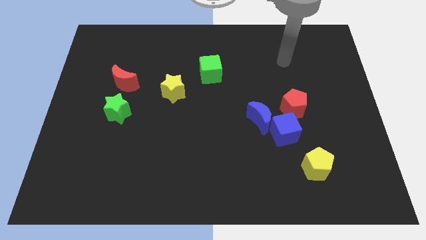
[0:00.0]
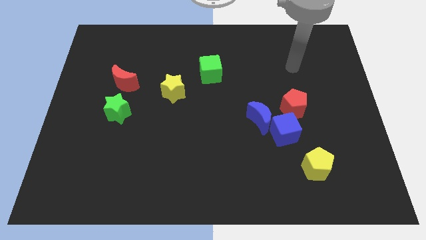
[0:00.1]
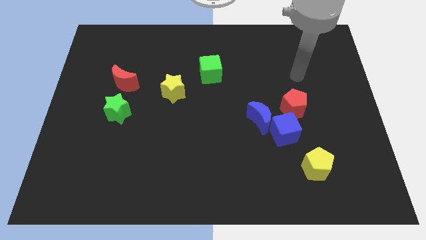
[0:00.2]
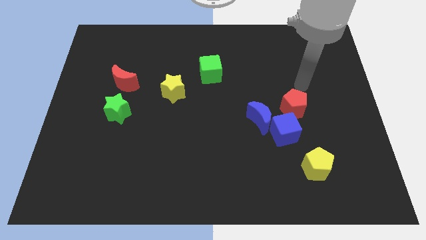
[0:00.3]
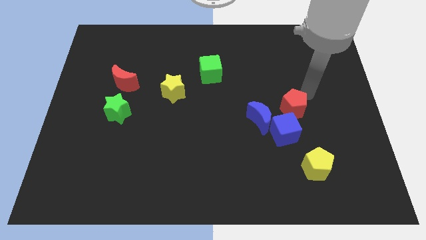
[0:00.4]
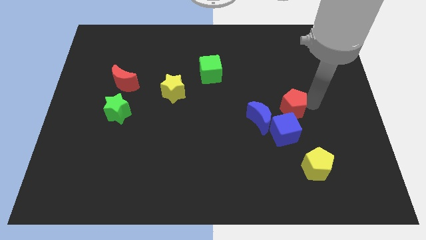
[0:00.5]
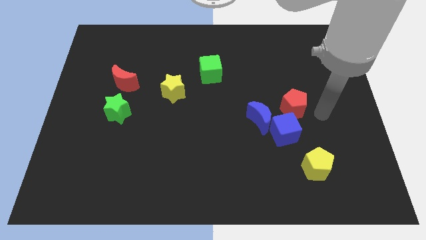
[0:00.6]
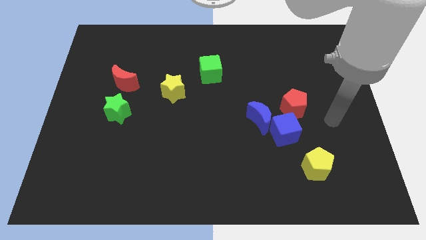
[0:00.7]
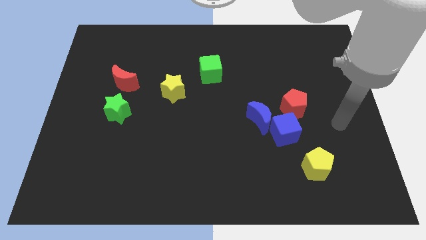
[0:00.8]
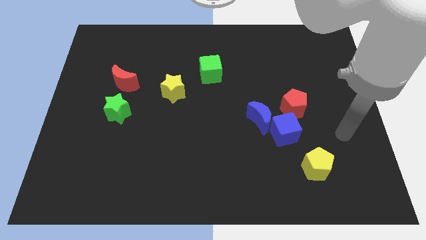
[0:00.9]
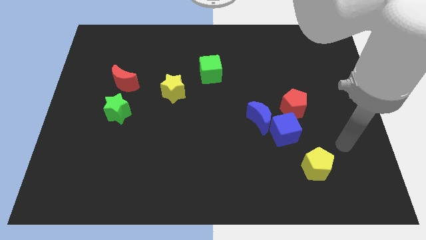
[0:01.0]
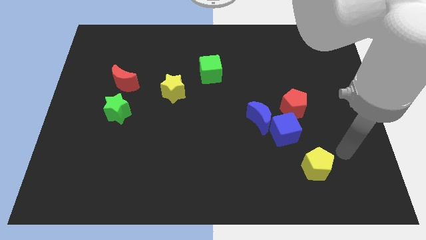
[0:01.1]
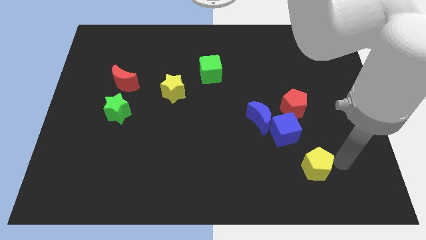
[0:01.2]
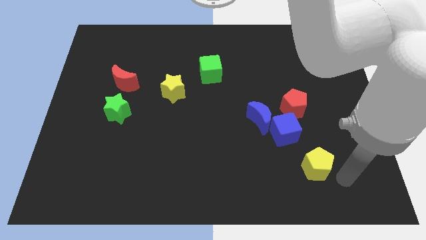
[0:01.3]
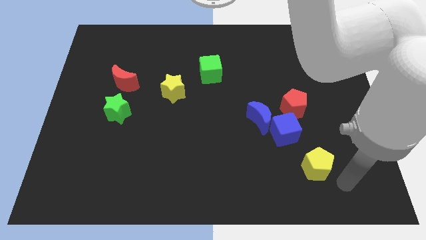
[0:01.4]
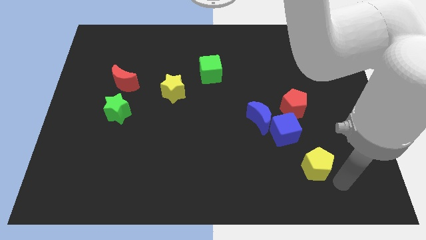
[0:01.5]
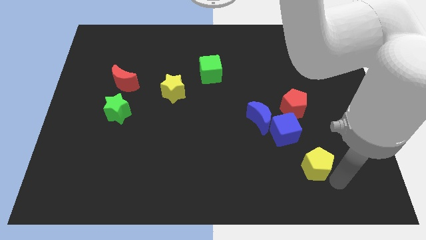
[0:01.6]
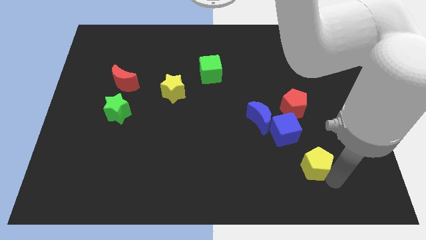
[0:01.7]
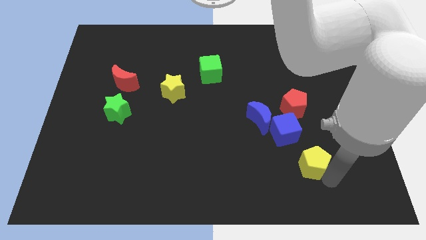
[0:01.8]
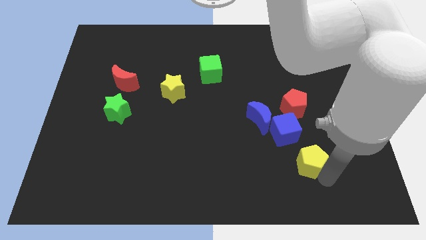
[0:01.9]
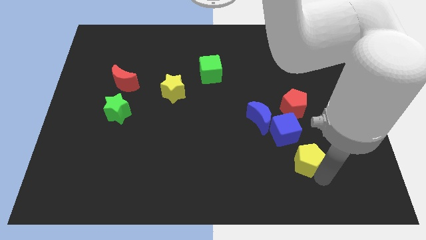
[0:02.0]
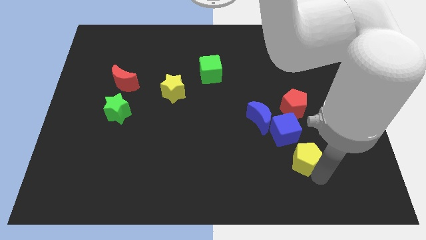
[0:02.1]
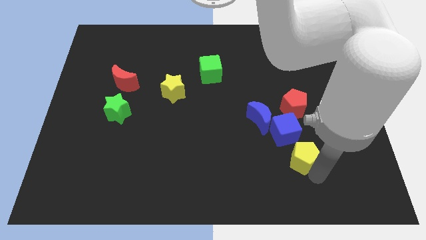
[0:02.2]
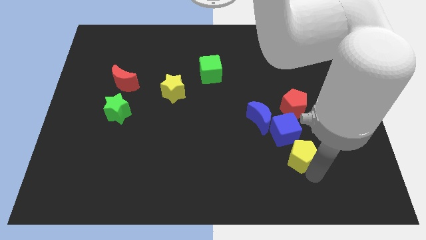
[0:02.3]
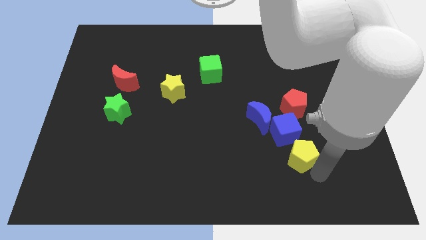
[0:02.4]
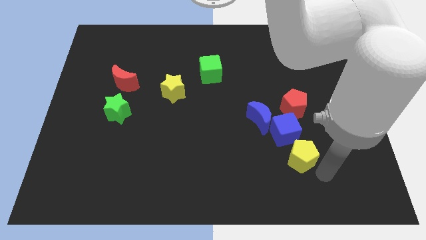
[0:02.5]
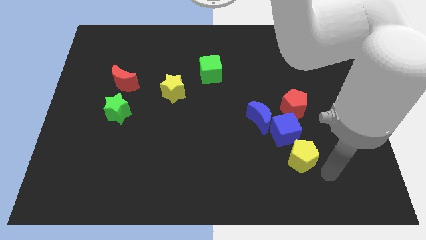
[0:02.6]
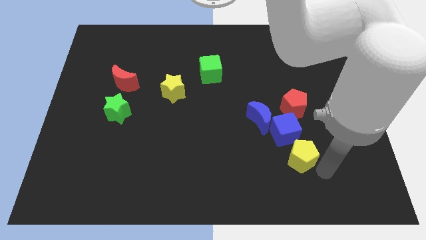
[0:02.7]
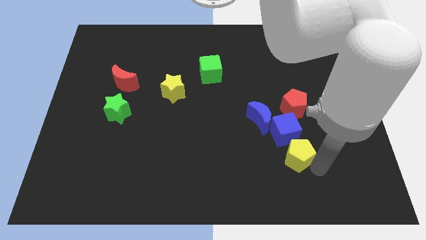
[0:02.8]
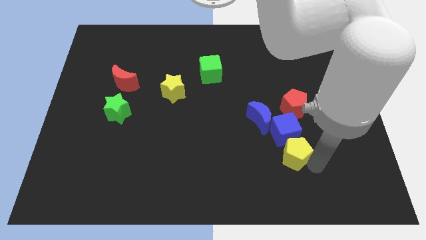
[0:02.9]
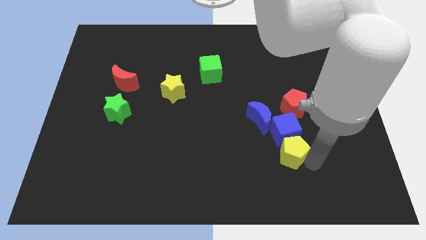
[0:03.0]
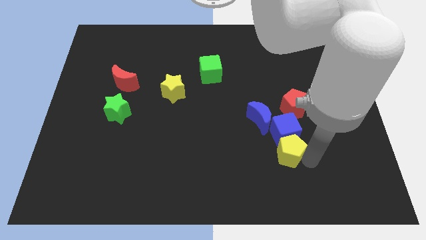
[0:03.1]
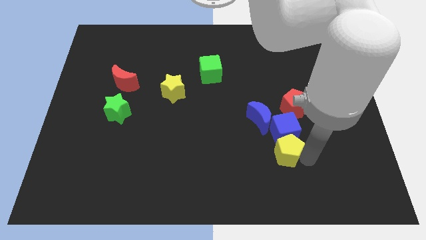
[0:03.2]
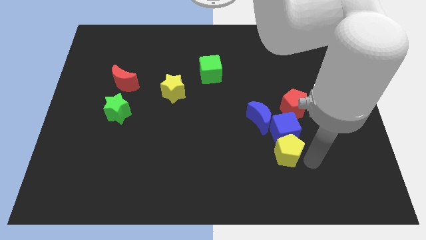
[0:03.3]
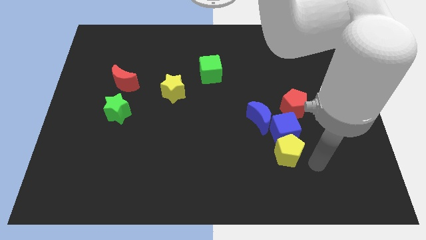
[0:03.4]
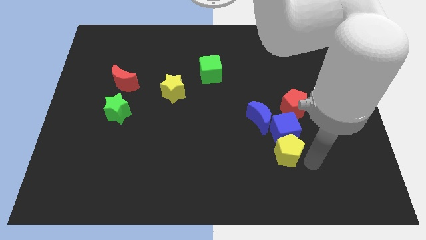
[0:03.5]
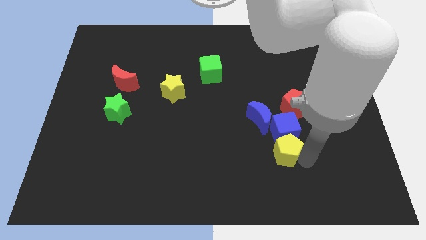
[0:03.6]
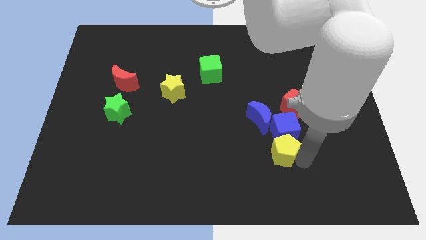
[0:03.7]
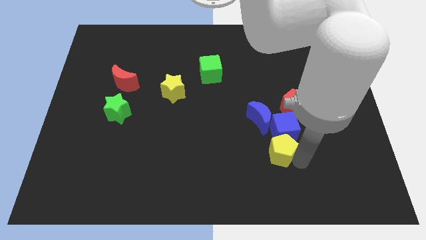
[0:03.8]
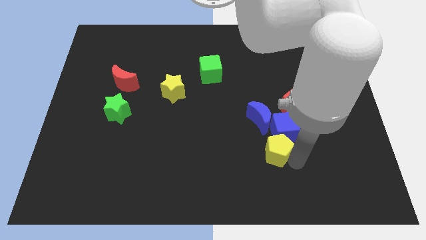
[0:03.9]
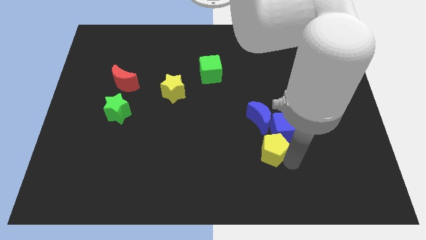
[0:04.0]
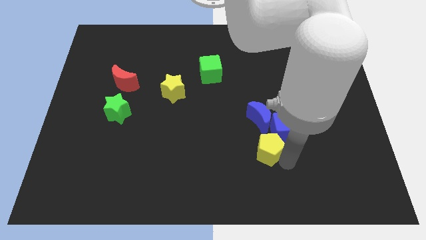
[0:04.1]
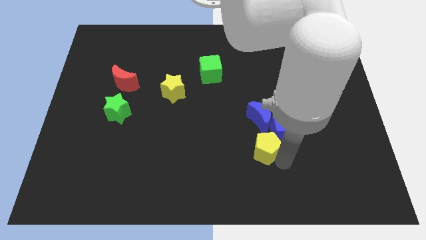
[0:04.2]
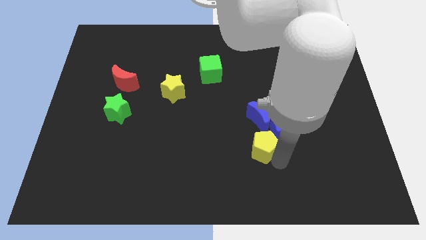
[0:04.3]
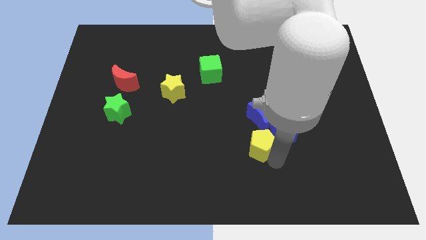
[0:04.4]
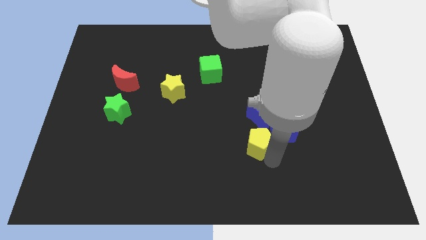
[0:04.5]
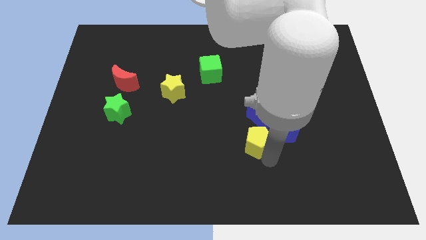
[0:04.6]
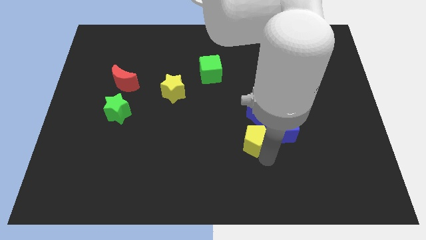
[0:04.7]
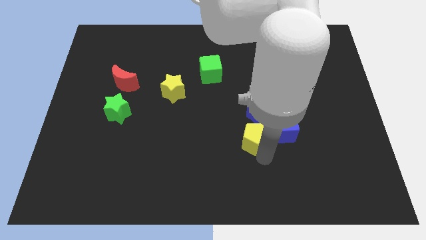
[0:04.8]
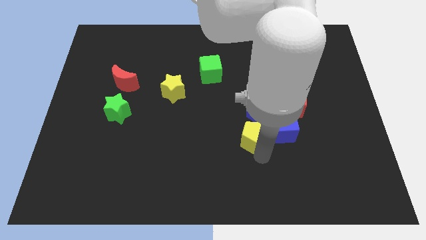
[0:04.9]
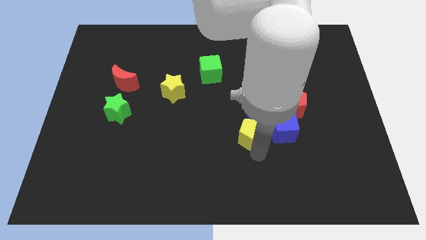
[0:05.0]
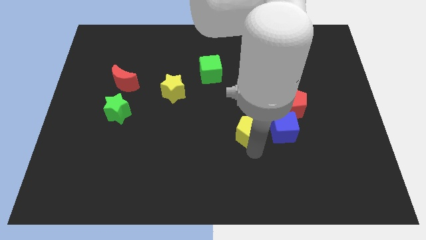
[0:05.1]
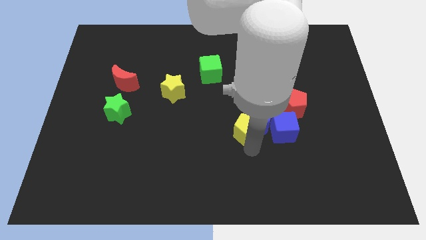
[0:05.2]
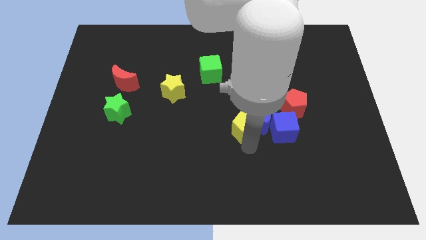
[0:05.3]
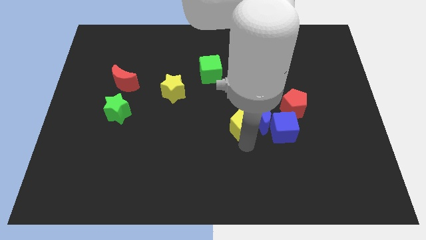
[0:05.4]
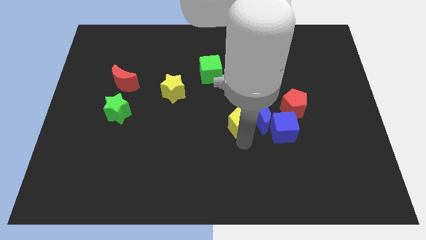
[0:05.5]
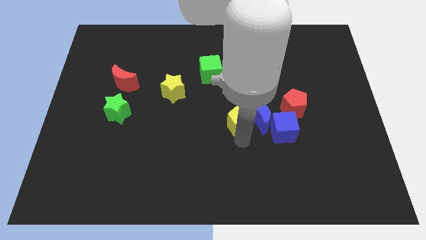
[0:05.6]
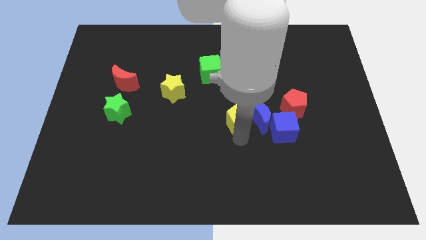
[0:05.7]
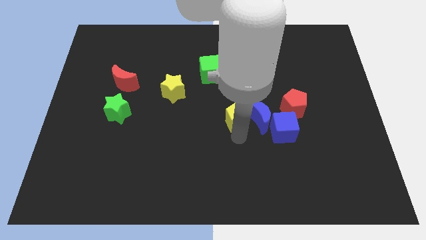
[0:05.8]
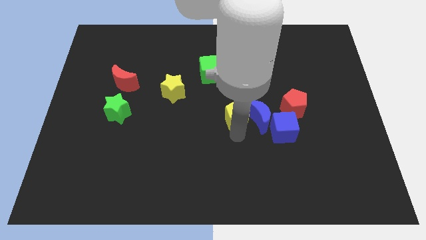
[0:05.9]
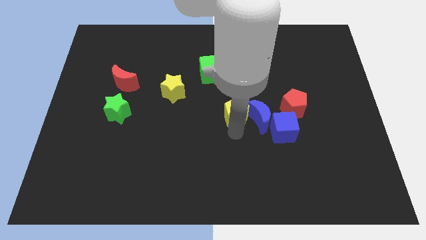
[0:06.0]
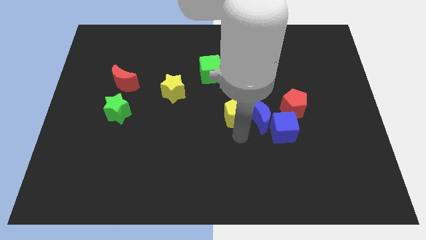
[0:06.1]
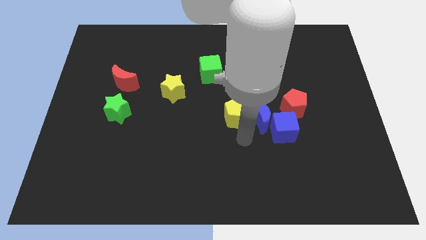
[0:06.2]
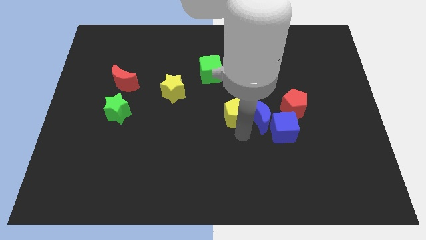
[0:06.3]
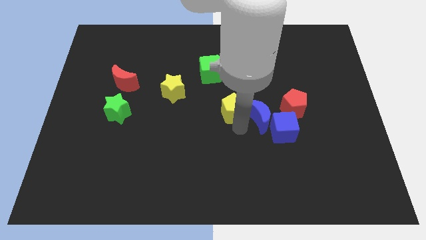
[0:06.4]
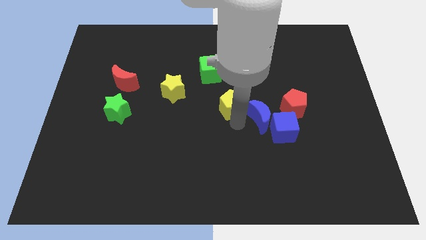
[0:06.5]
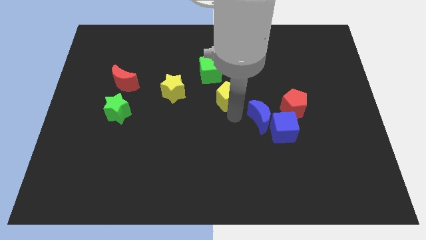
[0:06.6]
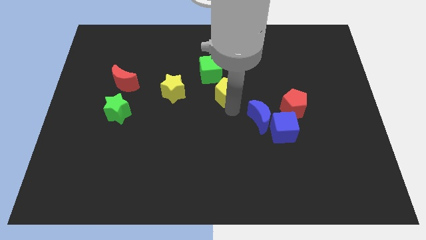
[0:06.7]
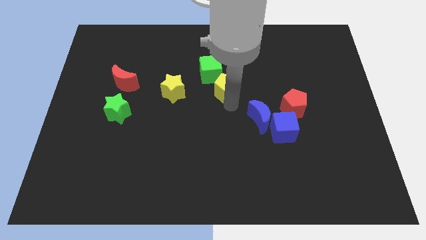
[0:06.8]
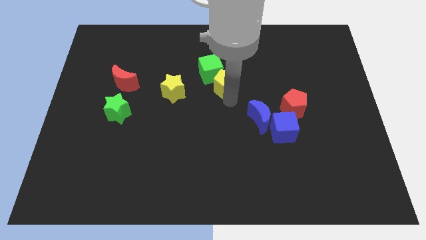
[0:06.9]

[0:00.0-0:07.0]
move the yellow pentagon close to the green cube

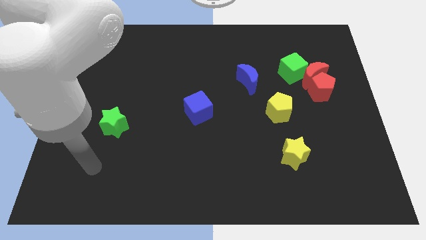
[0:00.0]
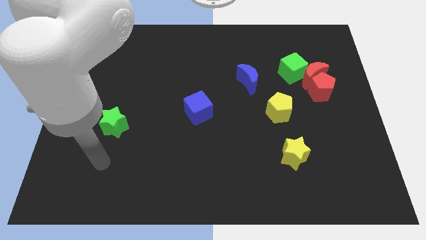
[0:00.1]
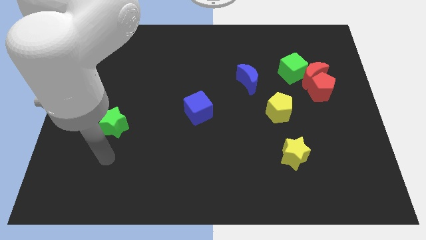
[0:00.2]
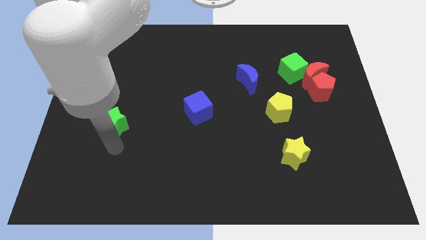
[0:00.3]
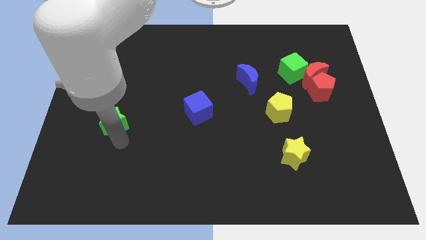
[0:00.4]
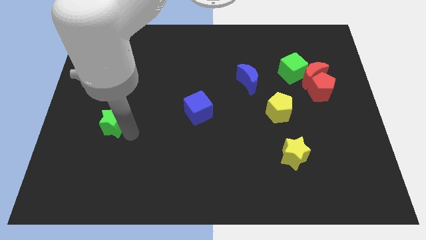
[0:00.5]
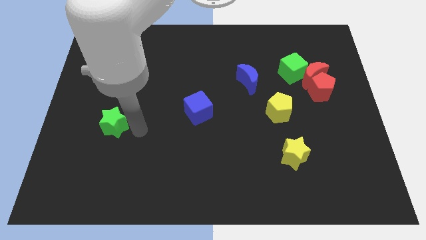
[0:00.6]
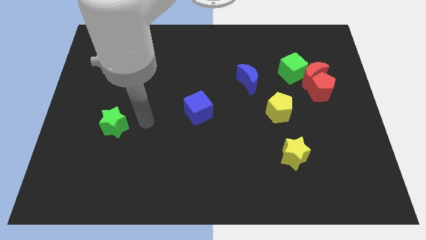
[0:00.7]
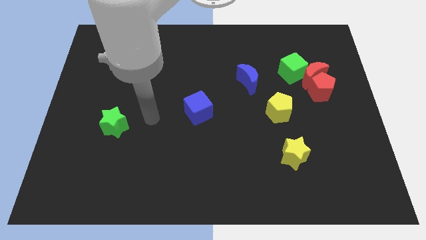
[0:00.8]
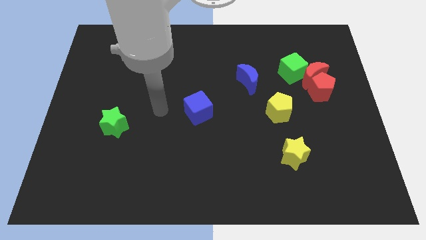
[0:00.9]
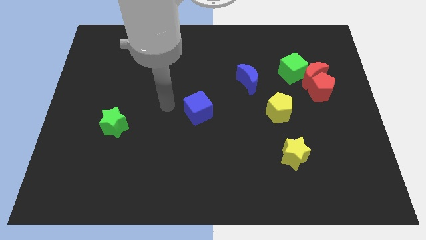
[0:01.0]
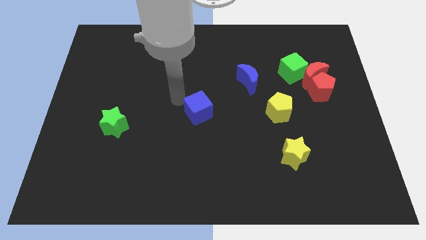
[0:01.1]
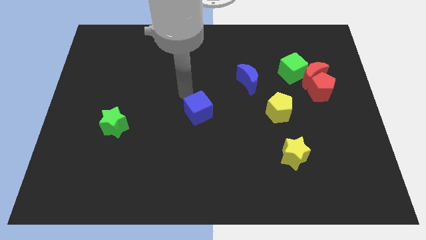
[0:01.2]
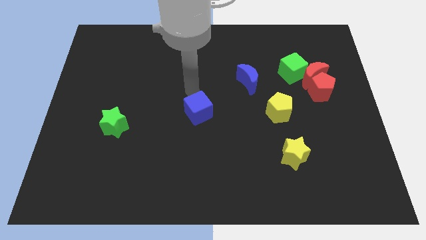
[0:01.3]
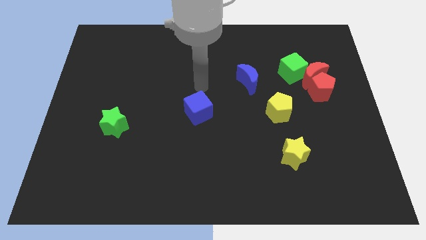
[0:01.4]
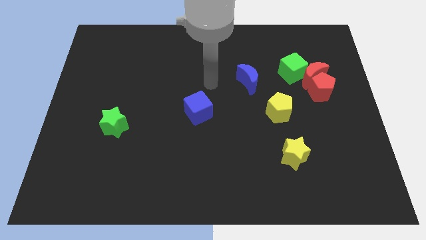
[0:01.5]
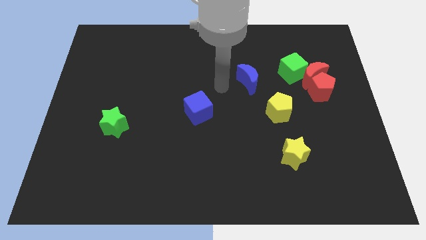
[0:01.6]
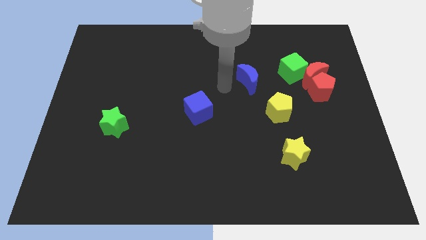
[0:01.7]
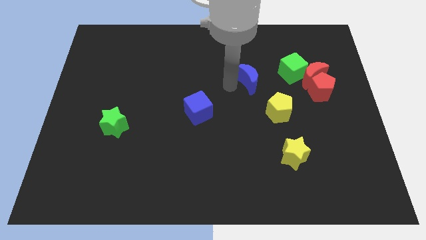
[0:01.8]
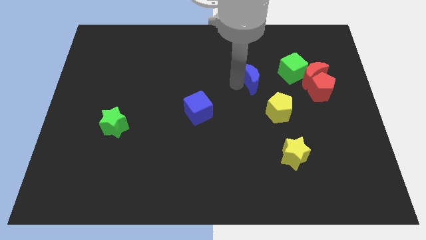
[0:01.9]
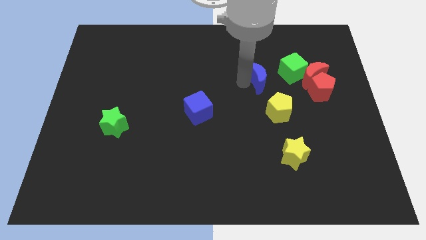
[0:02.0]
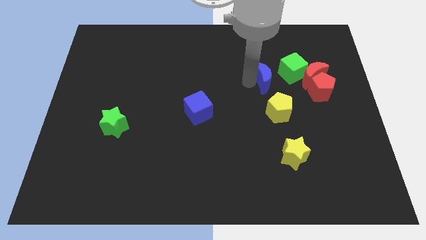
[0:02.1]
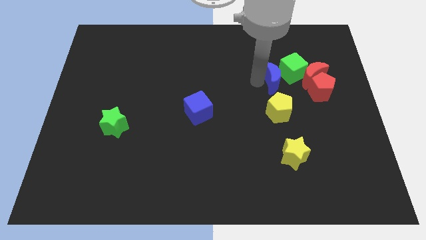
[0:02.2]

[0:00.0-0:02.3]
move the blue moon next to the green cube
